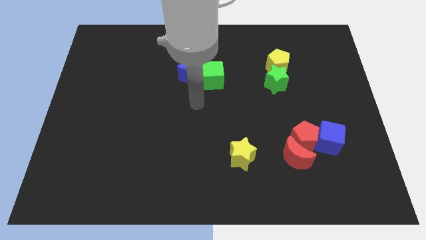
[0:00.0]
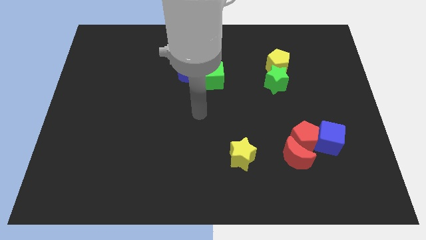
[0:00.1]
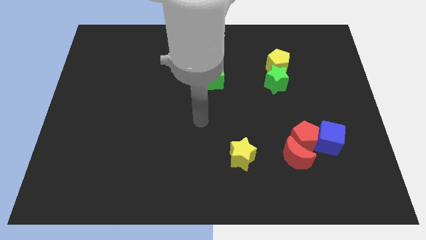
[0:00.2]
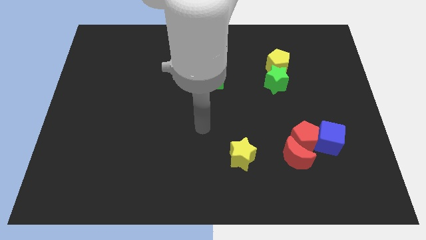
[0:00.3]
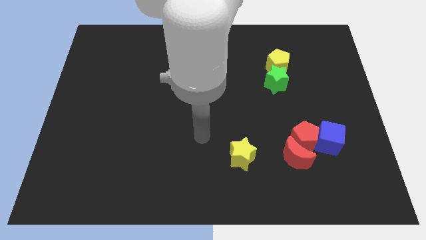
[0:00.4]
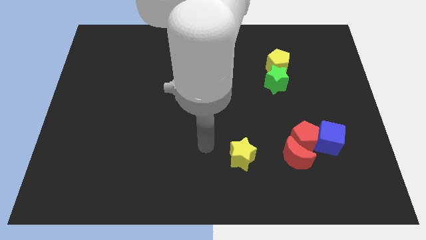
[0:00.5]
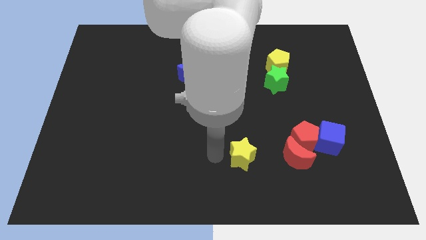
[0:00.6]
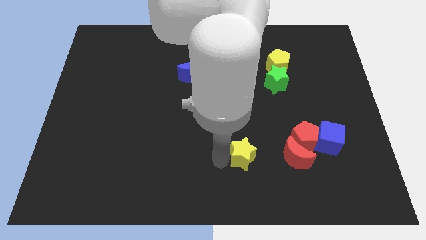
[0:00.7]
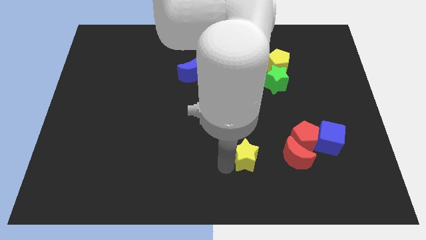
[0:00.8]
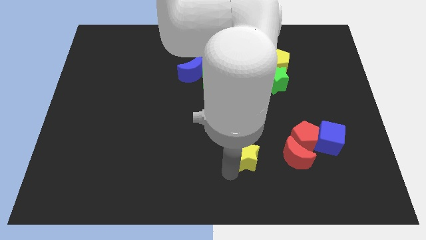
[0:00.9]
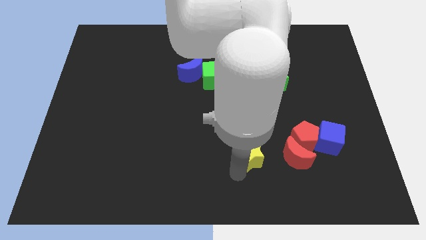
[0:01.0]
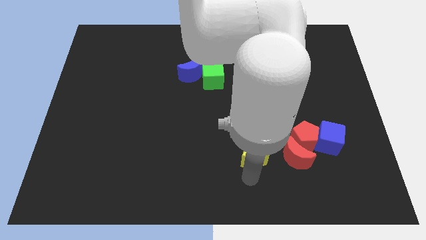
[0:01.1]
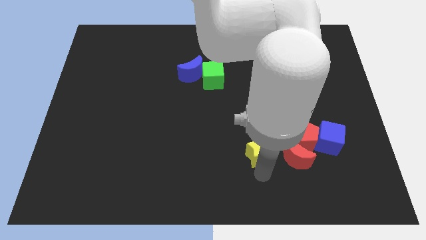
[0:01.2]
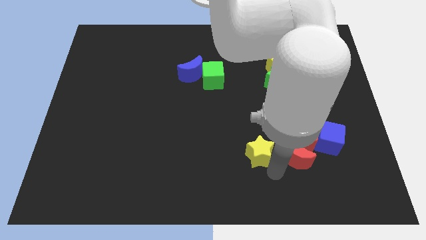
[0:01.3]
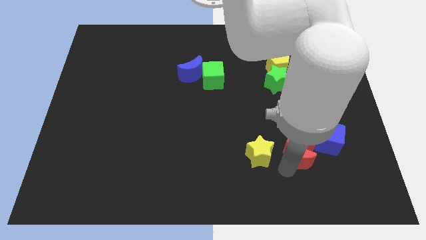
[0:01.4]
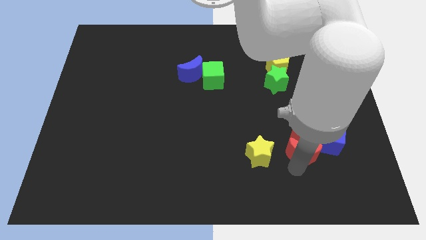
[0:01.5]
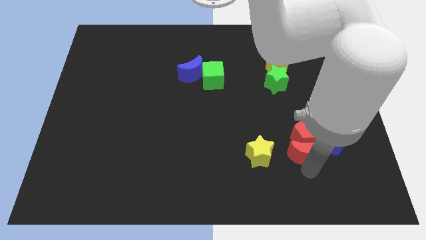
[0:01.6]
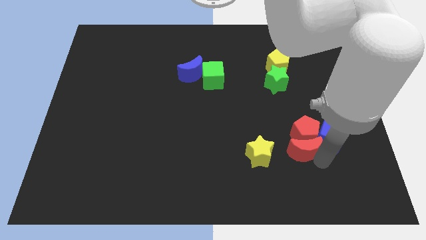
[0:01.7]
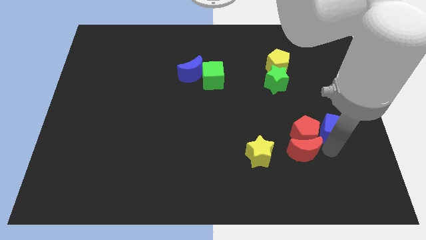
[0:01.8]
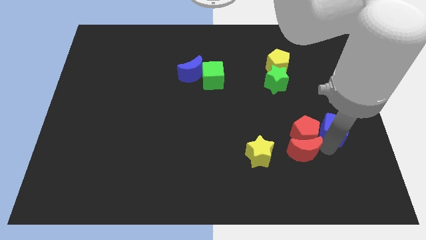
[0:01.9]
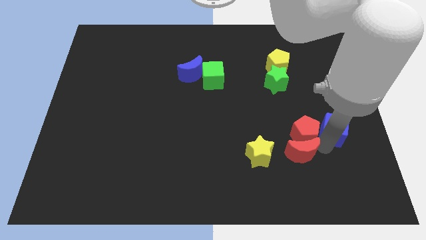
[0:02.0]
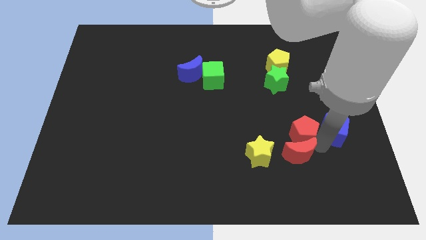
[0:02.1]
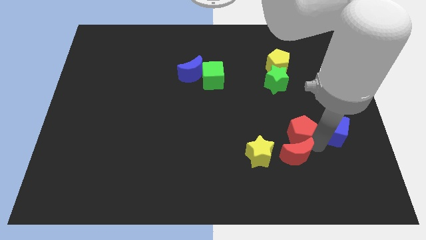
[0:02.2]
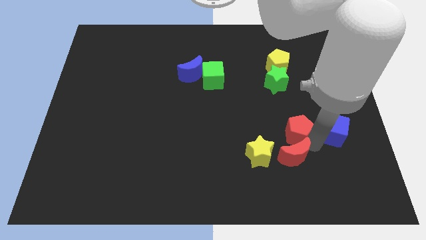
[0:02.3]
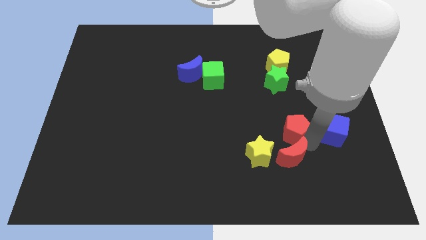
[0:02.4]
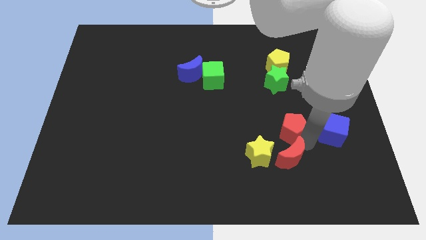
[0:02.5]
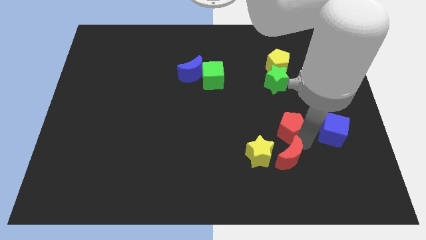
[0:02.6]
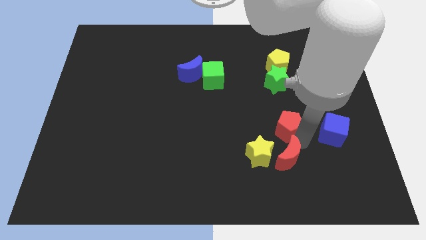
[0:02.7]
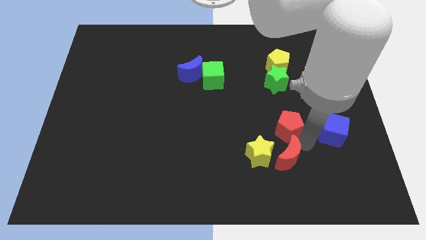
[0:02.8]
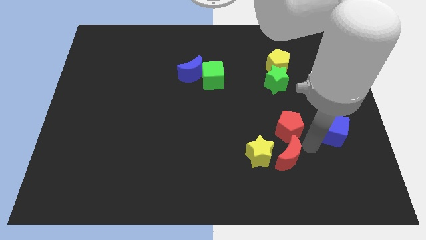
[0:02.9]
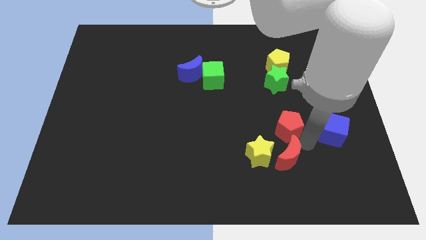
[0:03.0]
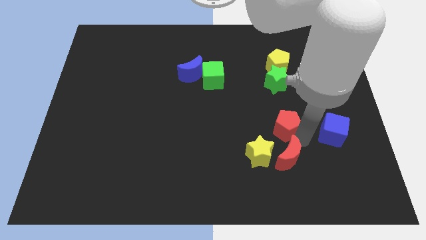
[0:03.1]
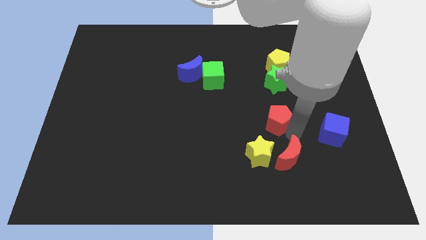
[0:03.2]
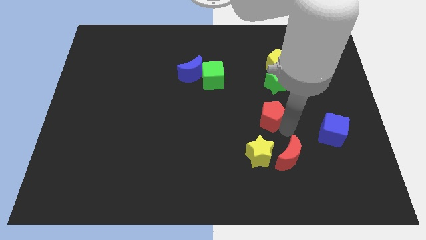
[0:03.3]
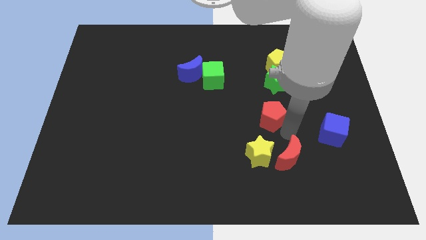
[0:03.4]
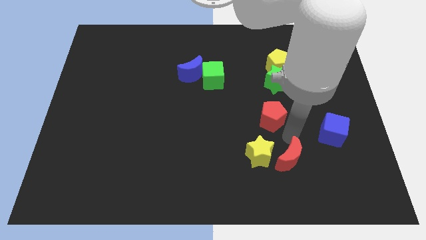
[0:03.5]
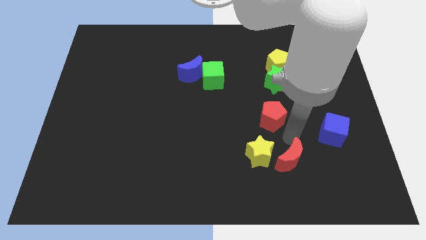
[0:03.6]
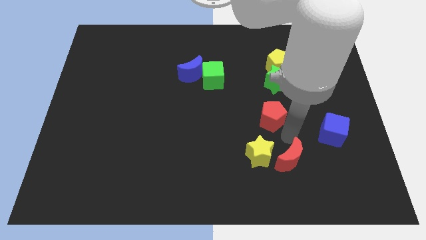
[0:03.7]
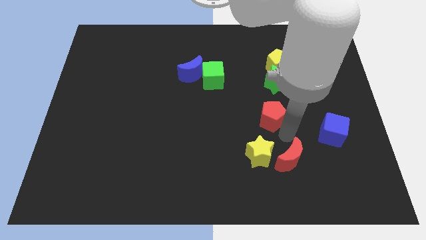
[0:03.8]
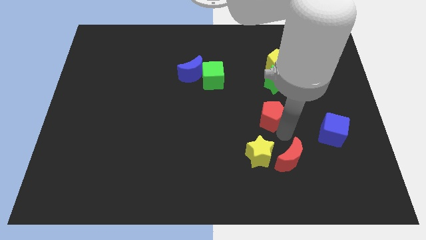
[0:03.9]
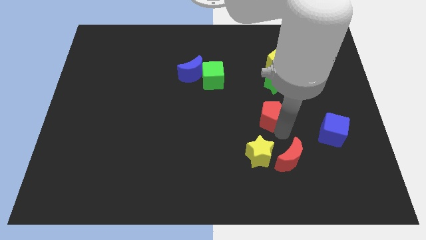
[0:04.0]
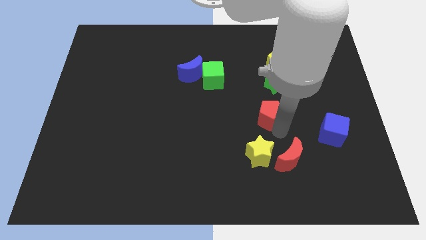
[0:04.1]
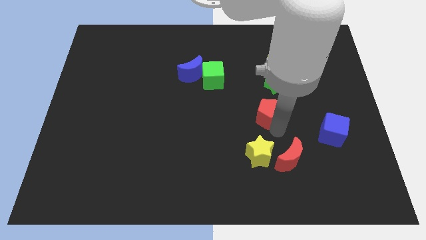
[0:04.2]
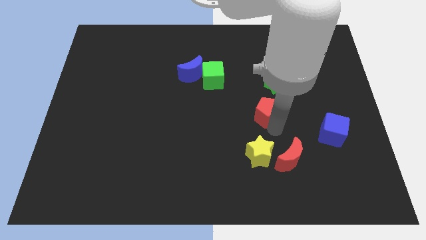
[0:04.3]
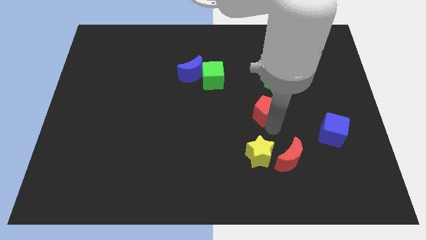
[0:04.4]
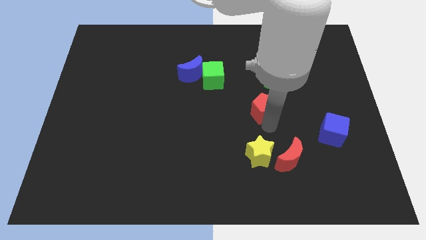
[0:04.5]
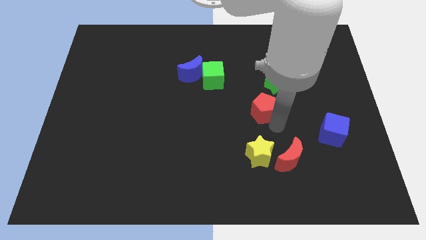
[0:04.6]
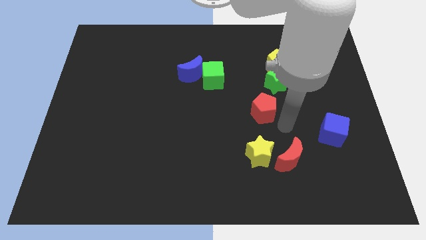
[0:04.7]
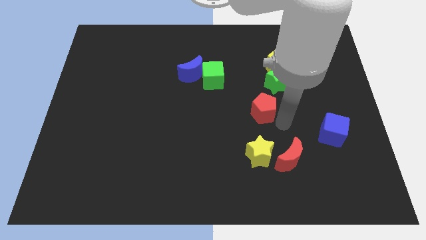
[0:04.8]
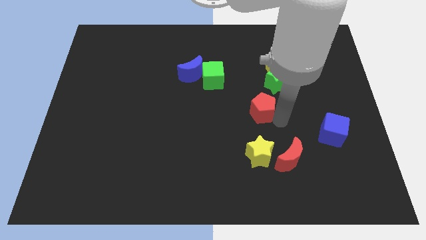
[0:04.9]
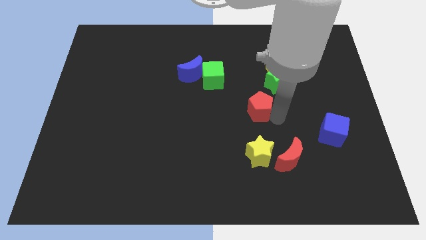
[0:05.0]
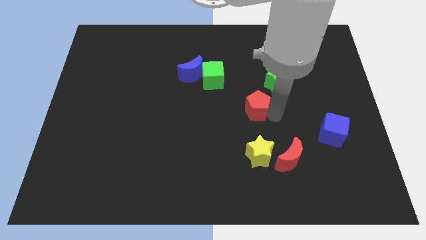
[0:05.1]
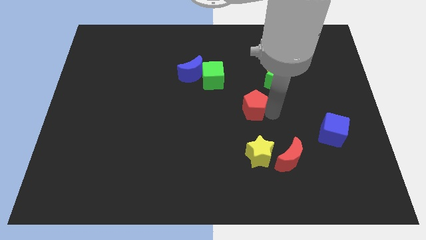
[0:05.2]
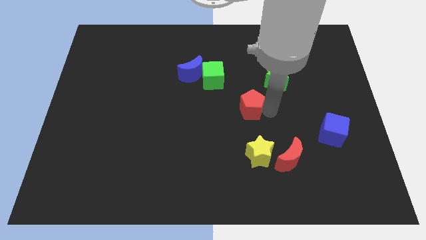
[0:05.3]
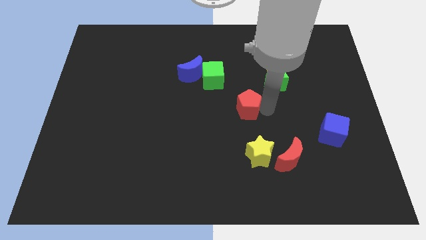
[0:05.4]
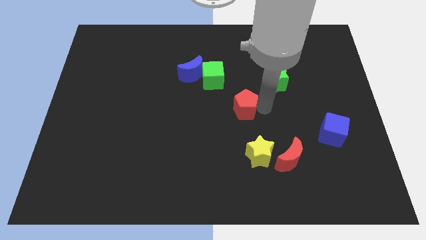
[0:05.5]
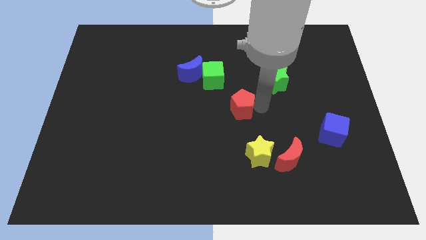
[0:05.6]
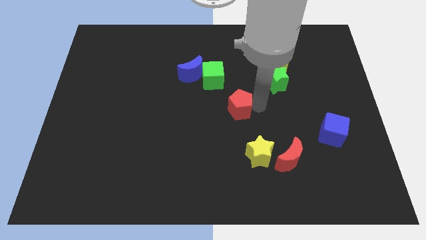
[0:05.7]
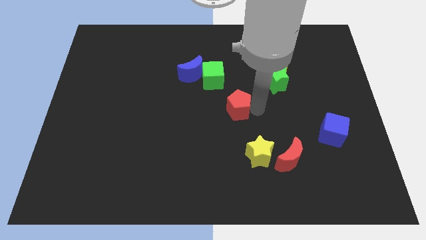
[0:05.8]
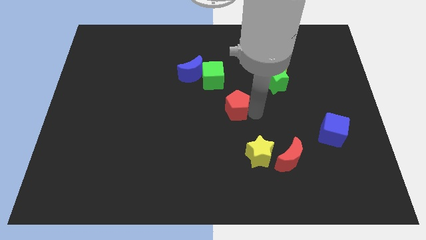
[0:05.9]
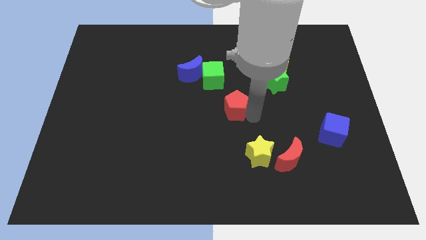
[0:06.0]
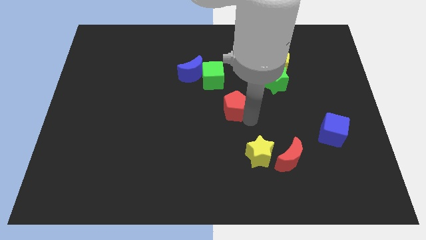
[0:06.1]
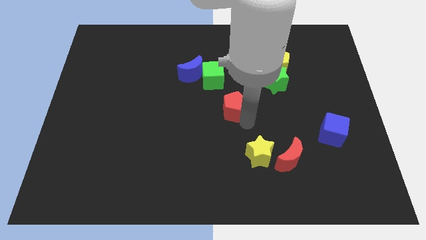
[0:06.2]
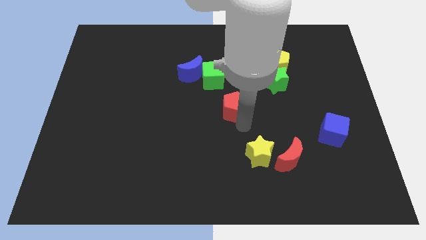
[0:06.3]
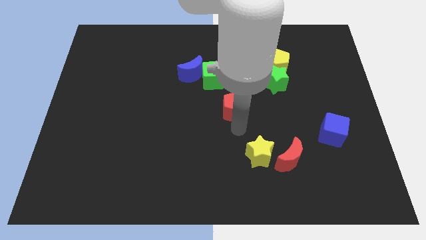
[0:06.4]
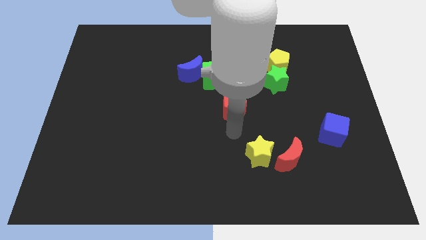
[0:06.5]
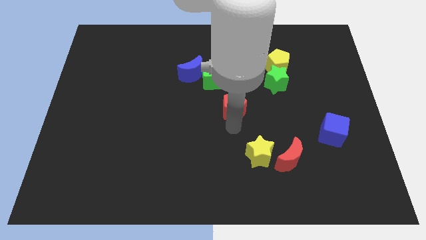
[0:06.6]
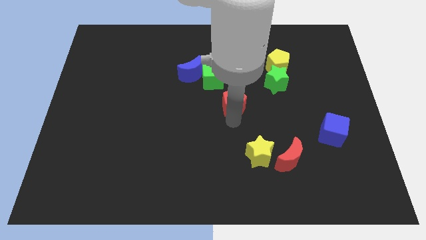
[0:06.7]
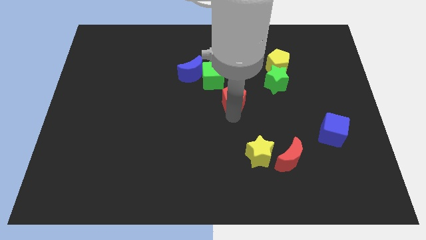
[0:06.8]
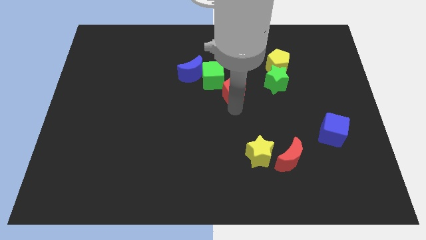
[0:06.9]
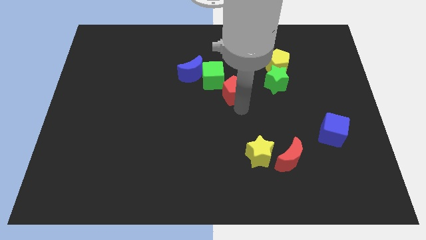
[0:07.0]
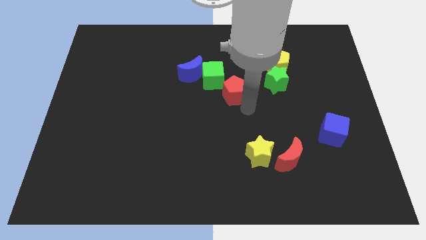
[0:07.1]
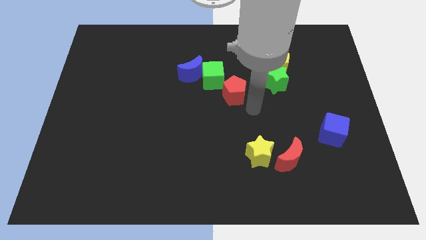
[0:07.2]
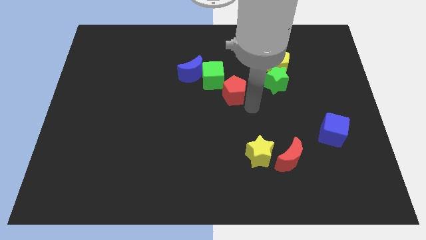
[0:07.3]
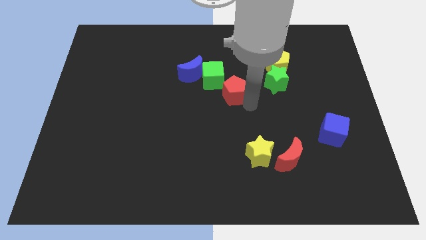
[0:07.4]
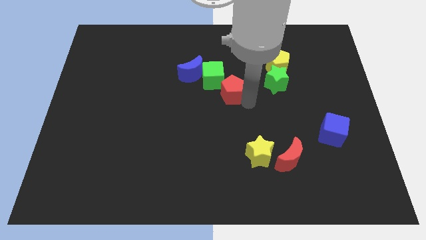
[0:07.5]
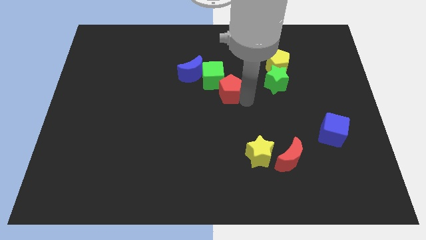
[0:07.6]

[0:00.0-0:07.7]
put the red pentagon close to the green cube
